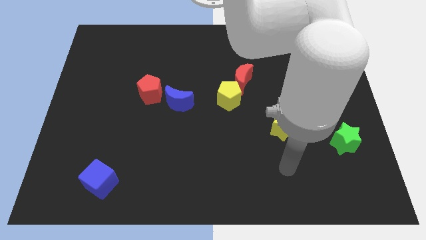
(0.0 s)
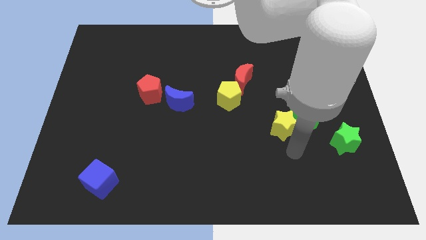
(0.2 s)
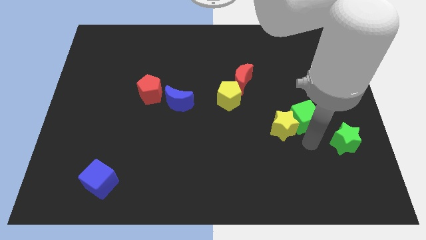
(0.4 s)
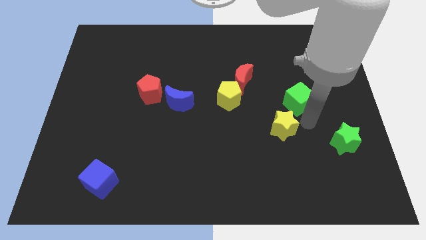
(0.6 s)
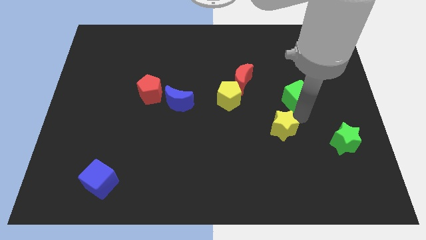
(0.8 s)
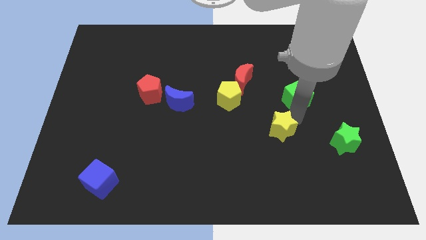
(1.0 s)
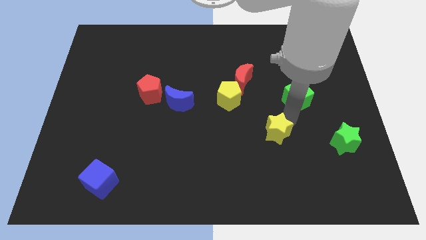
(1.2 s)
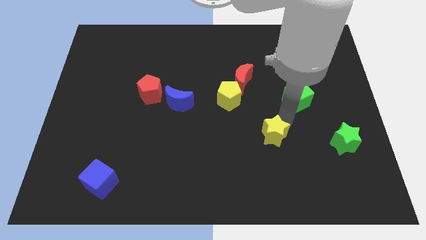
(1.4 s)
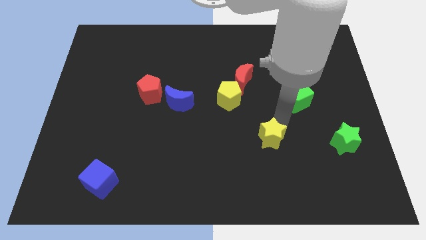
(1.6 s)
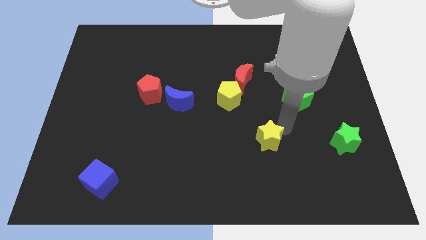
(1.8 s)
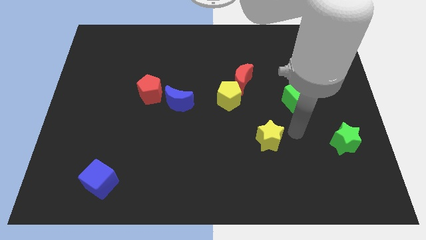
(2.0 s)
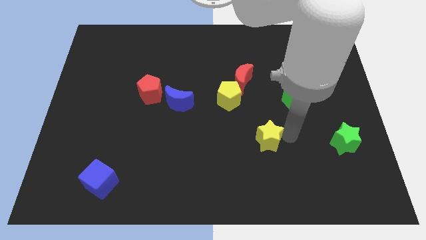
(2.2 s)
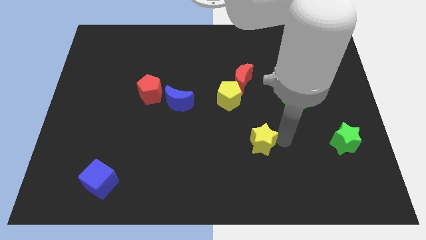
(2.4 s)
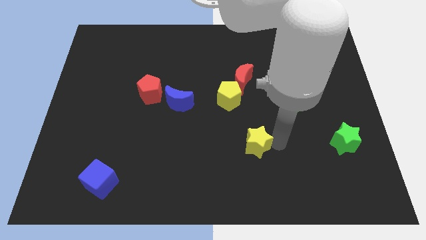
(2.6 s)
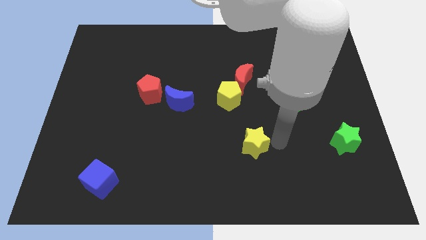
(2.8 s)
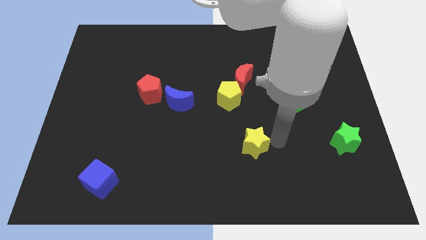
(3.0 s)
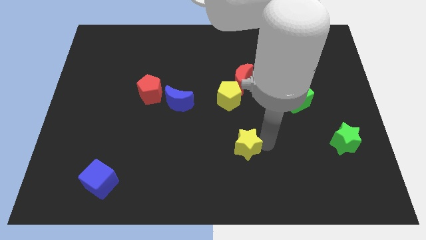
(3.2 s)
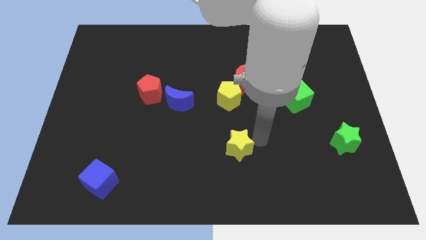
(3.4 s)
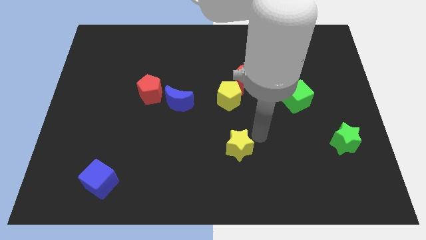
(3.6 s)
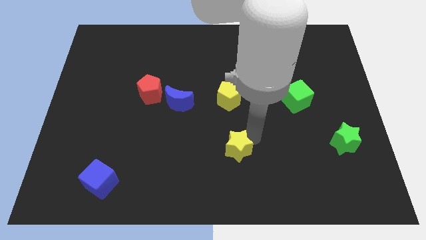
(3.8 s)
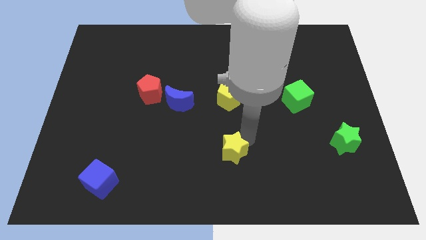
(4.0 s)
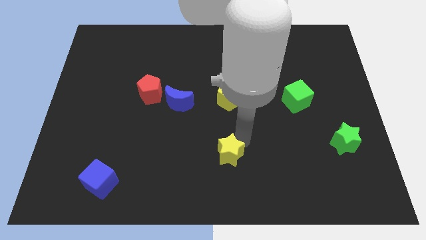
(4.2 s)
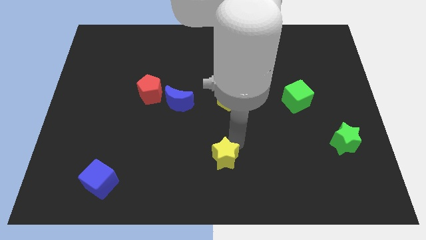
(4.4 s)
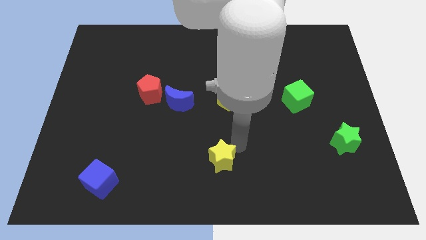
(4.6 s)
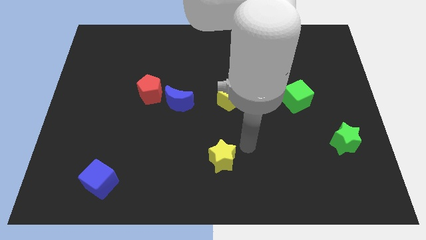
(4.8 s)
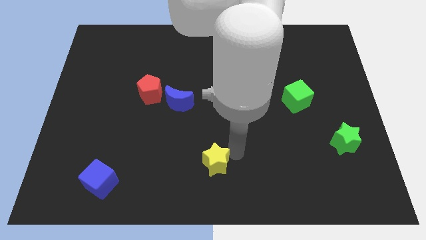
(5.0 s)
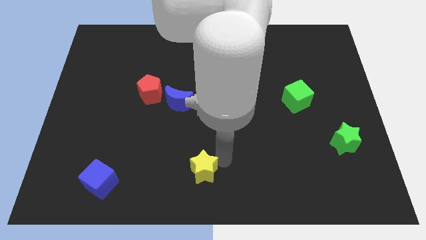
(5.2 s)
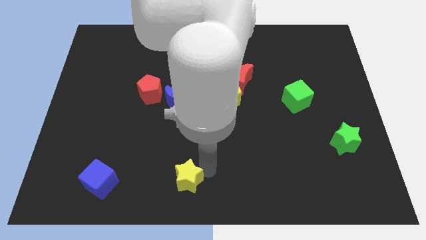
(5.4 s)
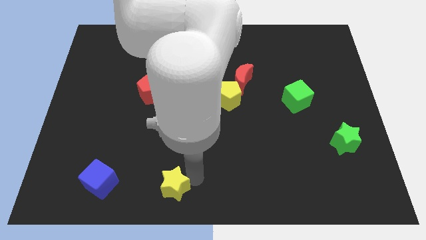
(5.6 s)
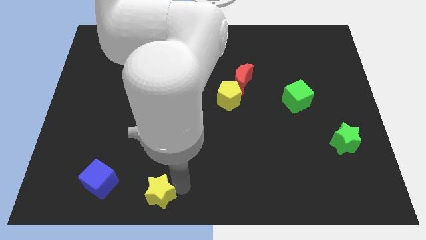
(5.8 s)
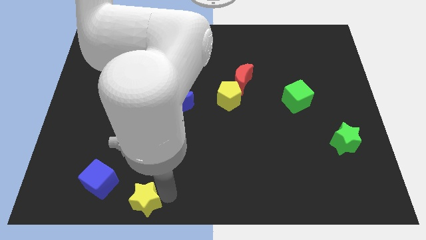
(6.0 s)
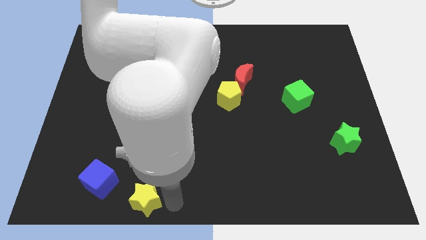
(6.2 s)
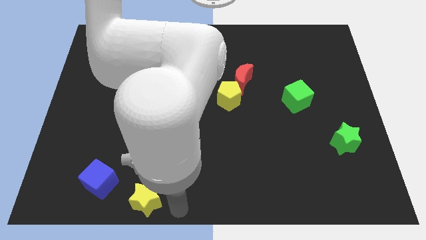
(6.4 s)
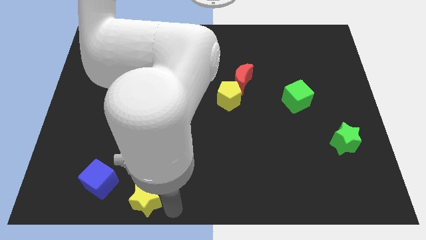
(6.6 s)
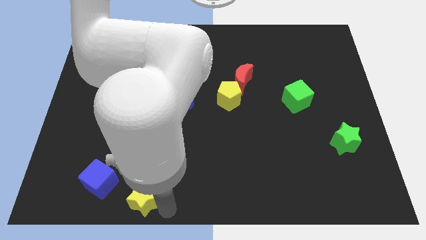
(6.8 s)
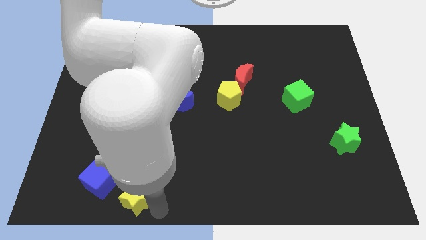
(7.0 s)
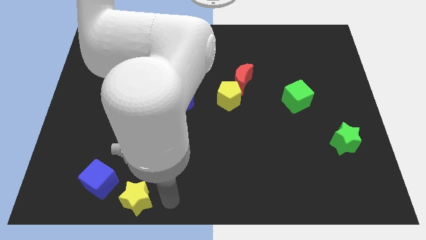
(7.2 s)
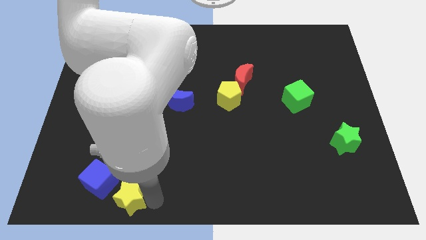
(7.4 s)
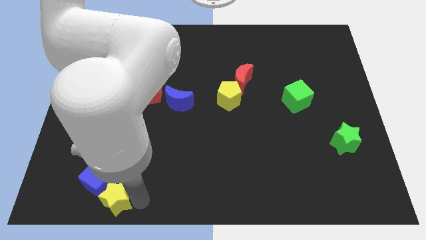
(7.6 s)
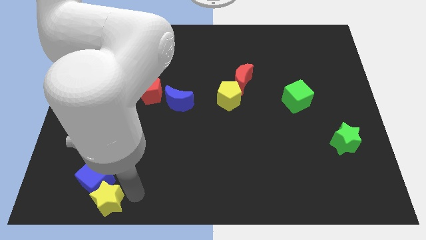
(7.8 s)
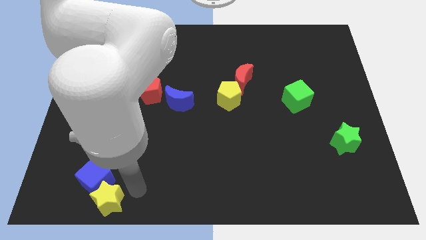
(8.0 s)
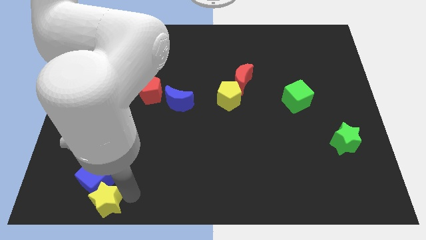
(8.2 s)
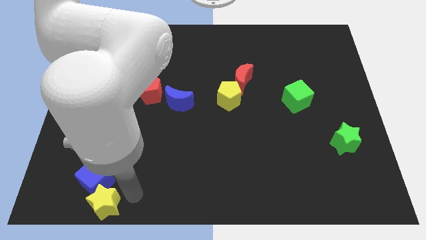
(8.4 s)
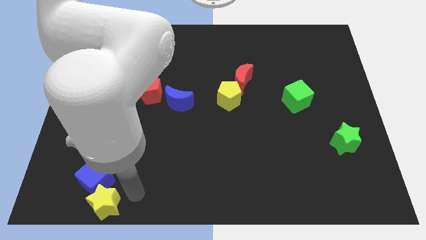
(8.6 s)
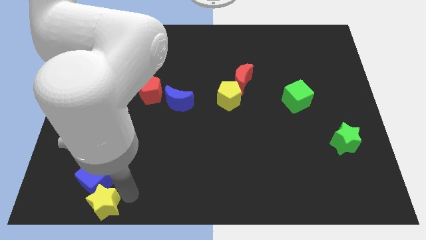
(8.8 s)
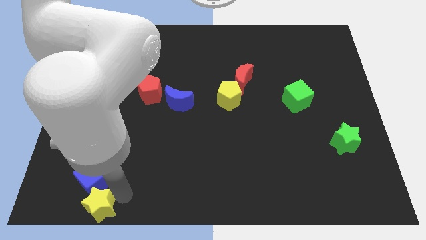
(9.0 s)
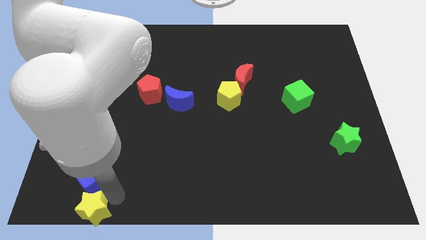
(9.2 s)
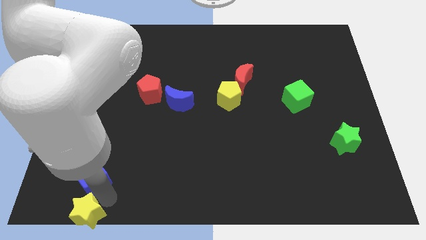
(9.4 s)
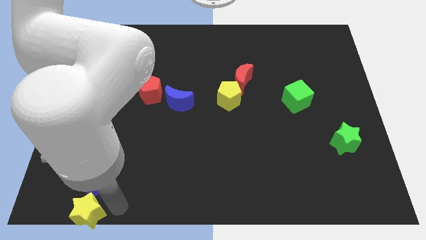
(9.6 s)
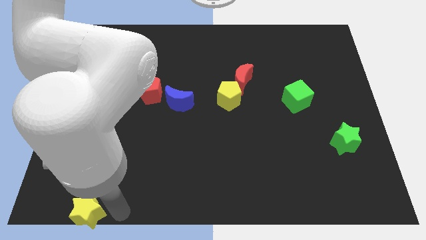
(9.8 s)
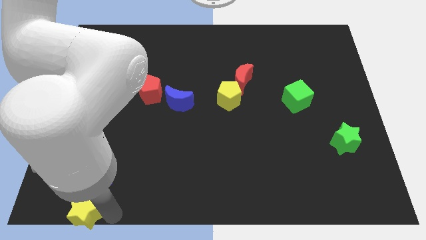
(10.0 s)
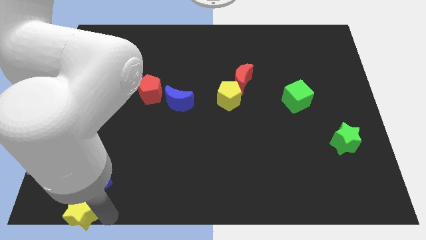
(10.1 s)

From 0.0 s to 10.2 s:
push the yellow star to the bottom left corner

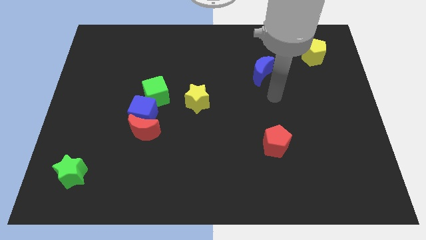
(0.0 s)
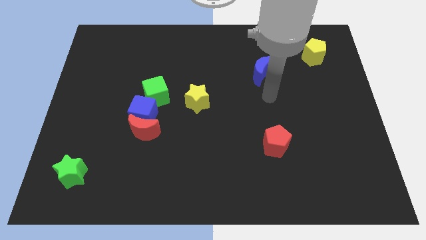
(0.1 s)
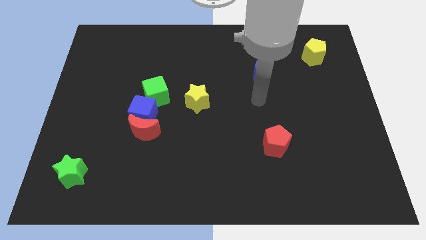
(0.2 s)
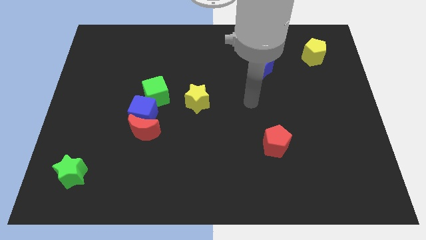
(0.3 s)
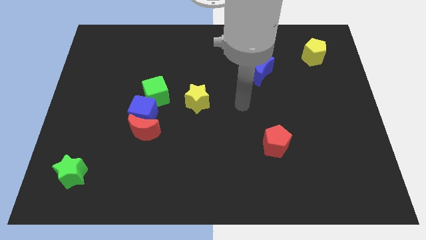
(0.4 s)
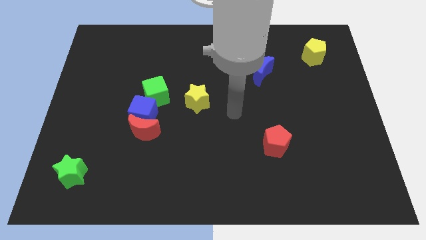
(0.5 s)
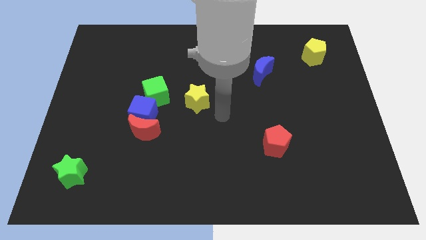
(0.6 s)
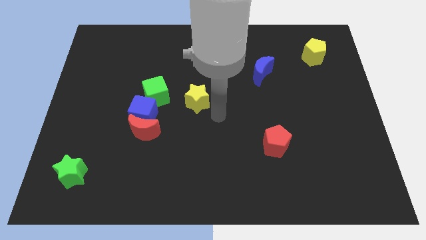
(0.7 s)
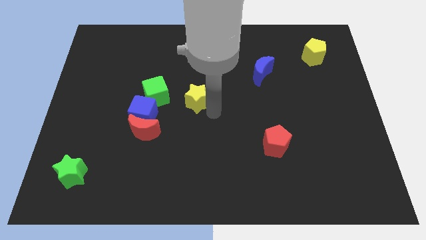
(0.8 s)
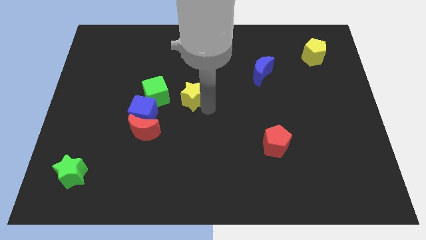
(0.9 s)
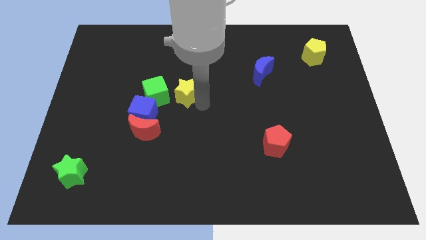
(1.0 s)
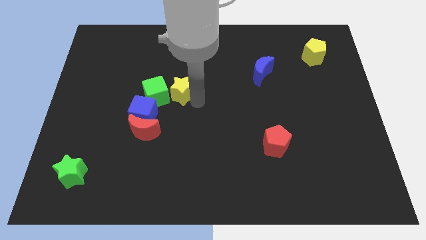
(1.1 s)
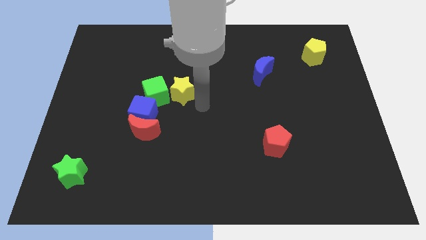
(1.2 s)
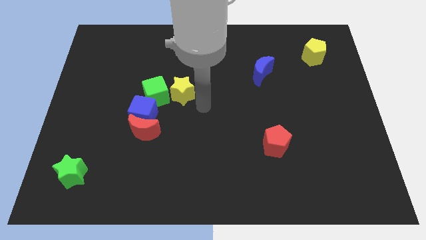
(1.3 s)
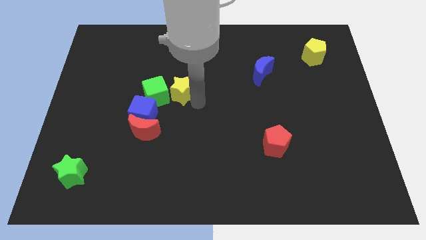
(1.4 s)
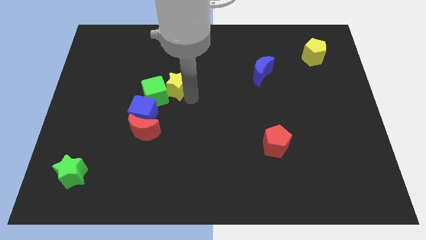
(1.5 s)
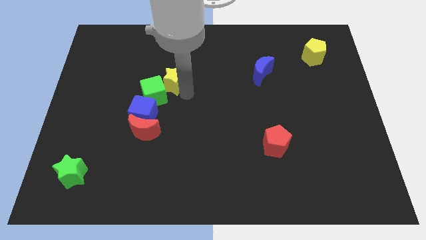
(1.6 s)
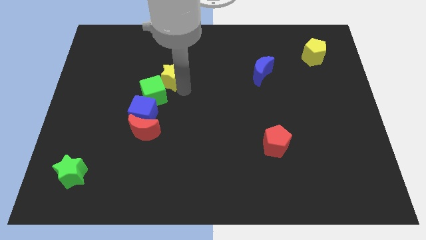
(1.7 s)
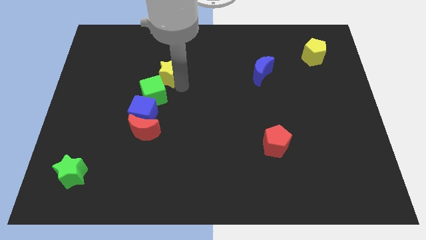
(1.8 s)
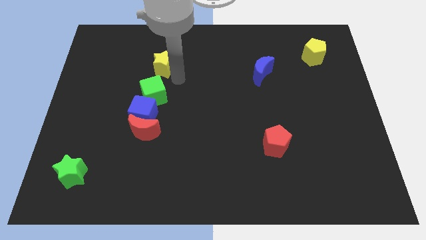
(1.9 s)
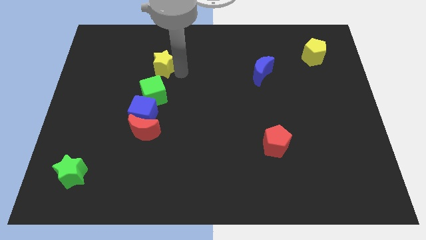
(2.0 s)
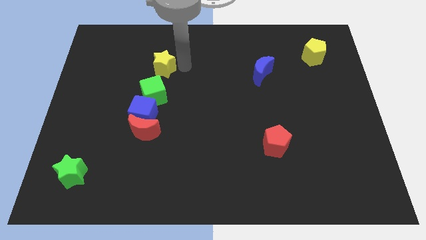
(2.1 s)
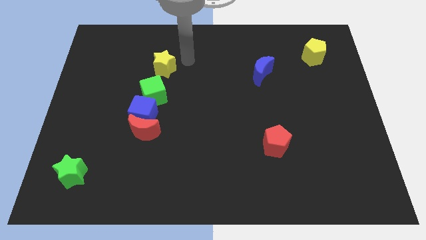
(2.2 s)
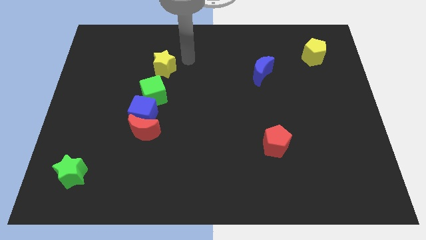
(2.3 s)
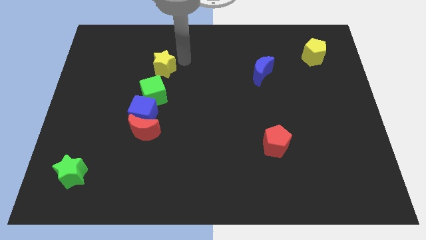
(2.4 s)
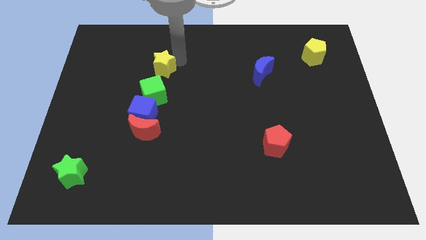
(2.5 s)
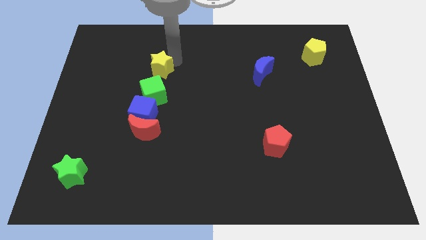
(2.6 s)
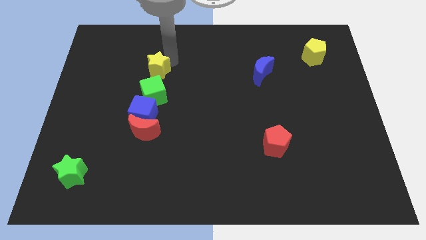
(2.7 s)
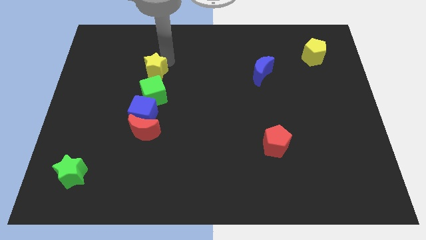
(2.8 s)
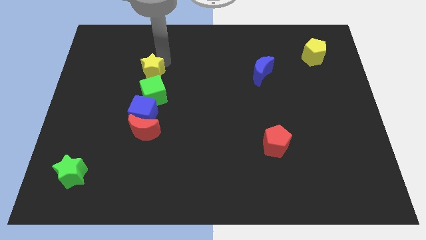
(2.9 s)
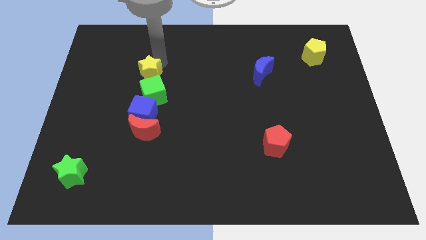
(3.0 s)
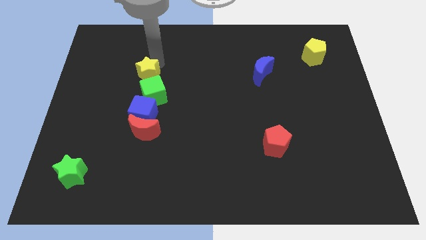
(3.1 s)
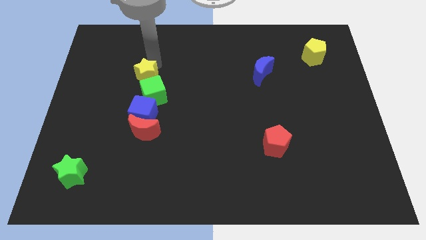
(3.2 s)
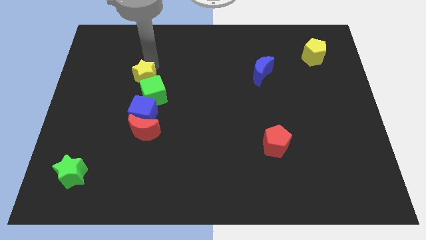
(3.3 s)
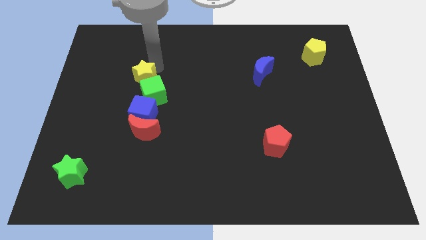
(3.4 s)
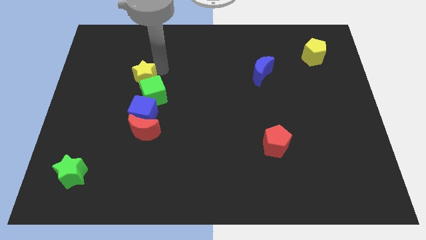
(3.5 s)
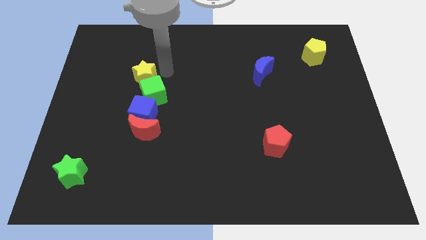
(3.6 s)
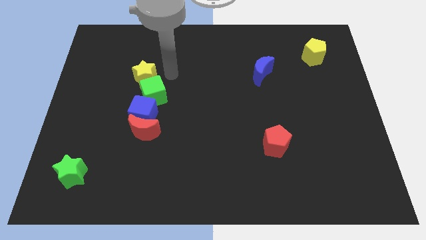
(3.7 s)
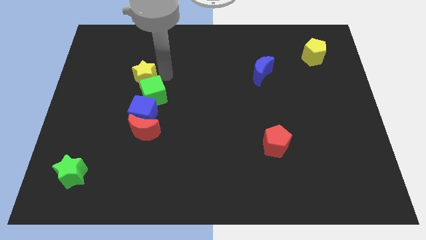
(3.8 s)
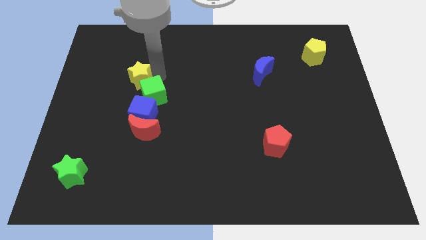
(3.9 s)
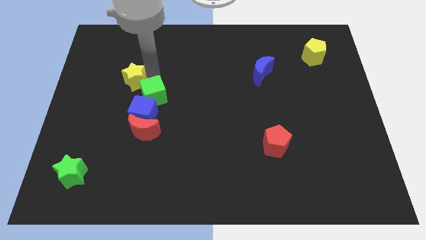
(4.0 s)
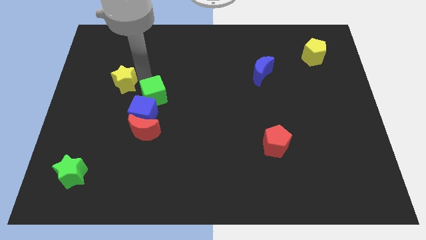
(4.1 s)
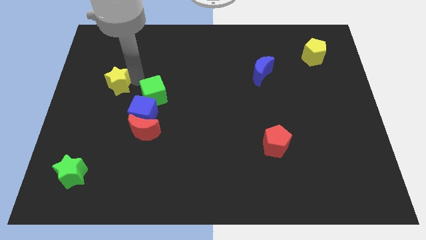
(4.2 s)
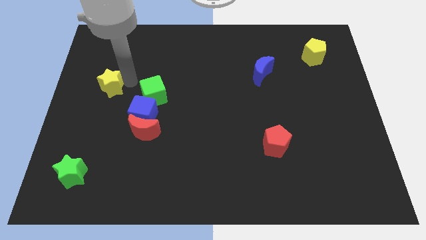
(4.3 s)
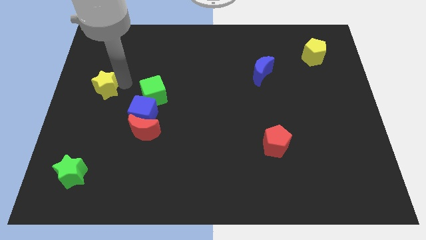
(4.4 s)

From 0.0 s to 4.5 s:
push the yellow star to the left side of the board
